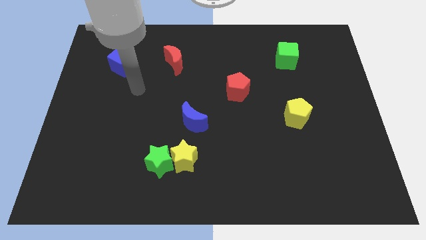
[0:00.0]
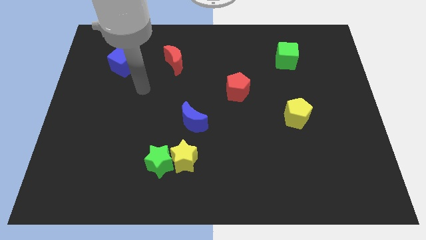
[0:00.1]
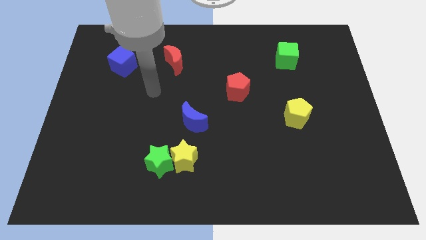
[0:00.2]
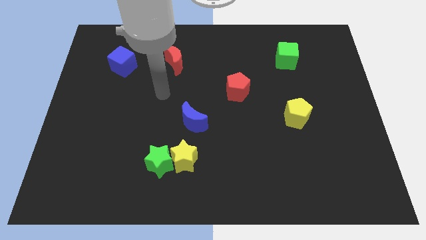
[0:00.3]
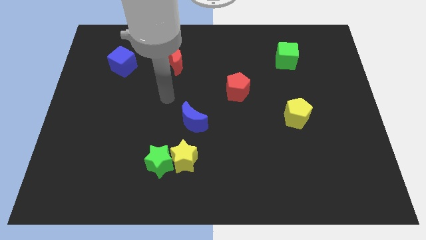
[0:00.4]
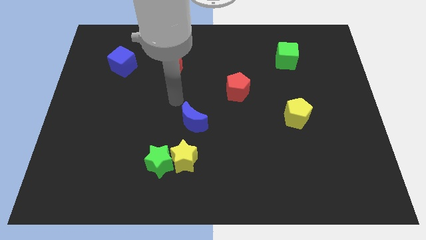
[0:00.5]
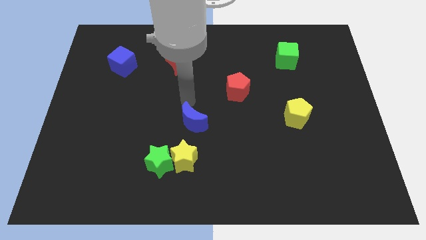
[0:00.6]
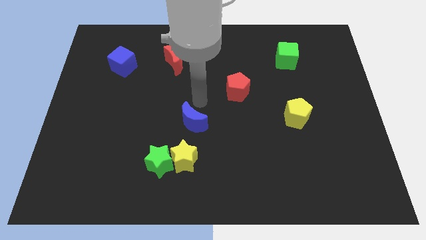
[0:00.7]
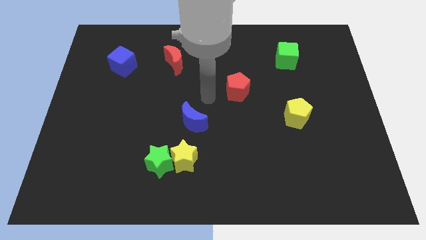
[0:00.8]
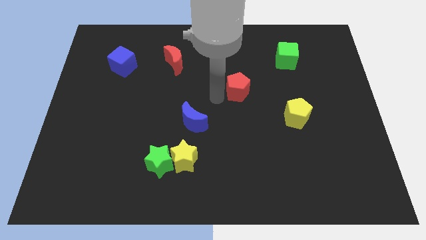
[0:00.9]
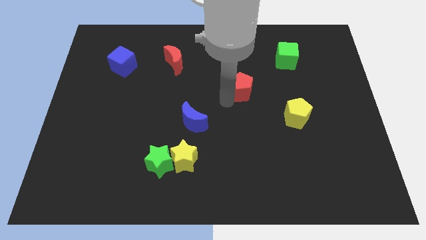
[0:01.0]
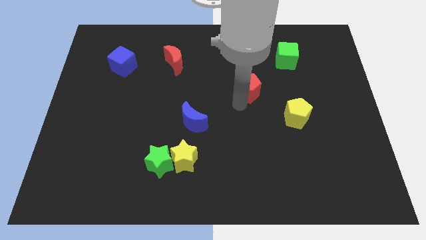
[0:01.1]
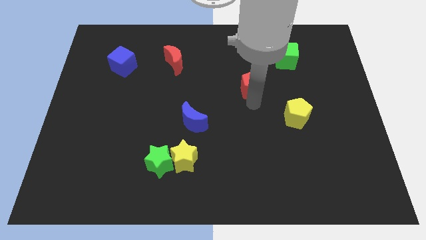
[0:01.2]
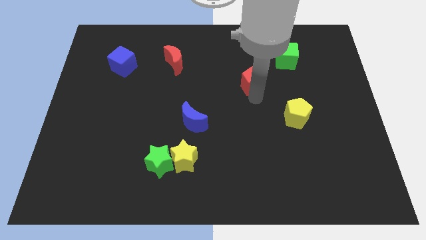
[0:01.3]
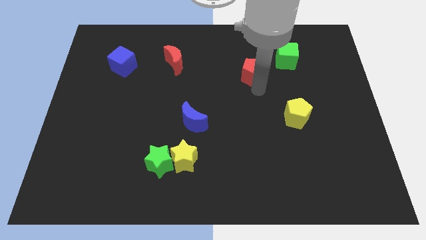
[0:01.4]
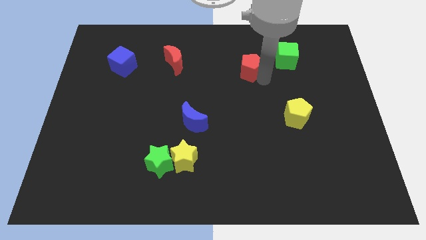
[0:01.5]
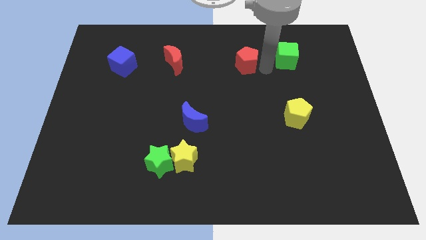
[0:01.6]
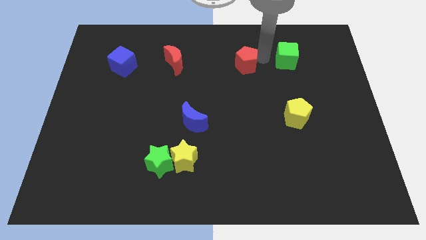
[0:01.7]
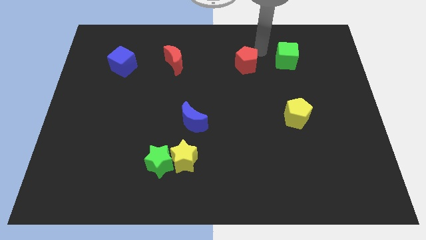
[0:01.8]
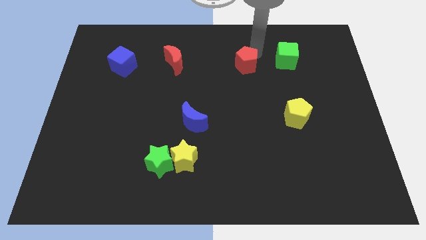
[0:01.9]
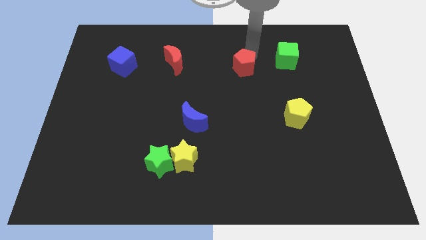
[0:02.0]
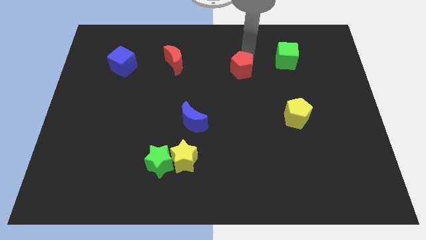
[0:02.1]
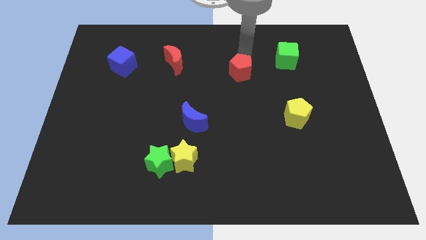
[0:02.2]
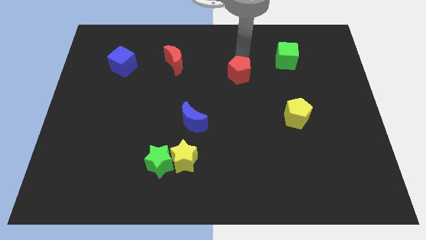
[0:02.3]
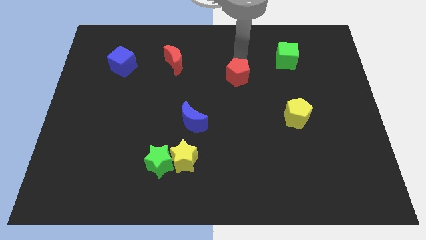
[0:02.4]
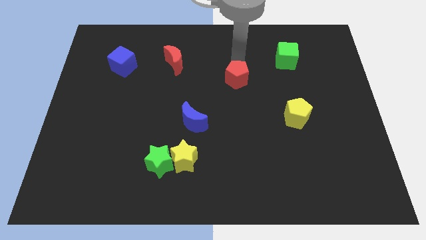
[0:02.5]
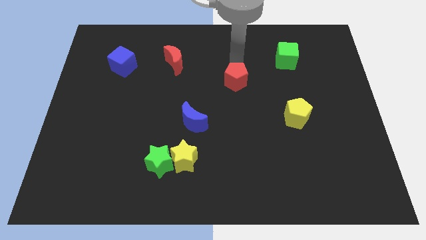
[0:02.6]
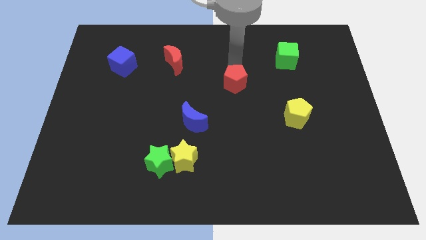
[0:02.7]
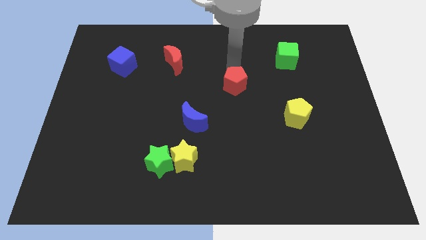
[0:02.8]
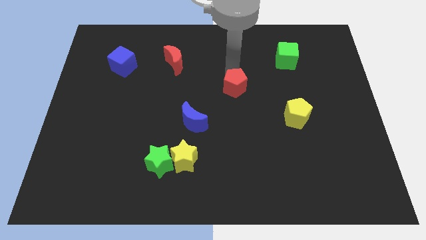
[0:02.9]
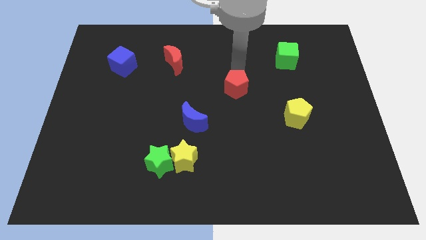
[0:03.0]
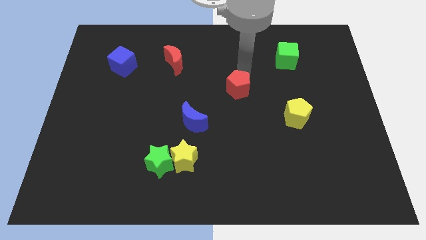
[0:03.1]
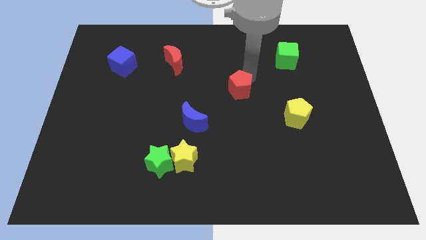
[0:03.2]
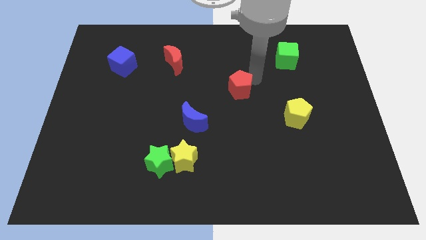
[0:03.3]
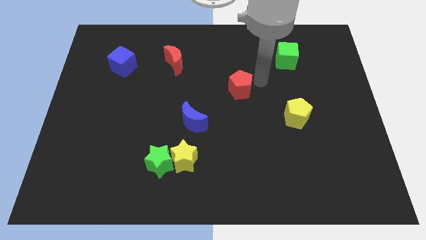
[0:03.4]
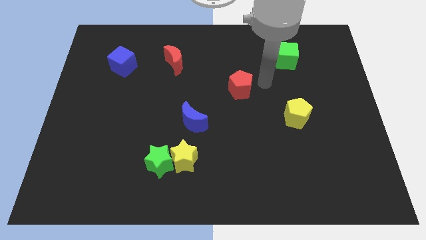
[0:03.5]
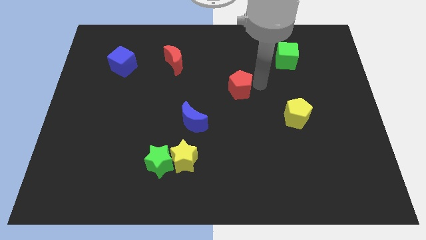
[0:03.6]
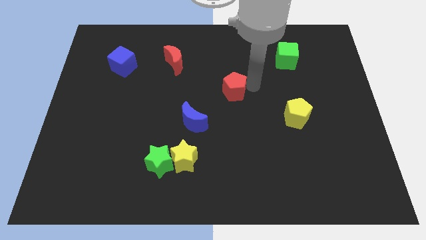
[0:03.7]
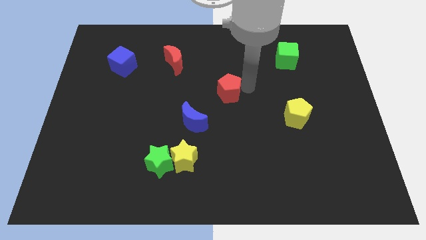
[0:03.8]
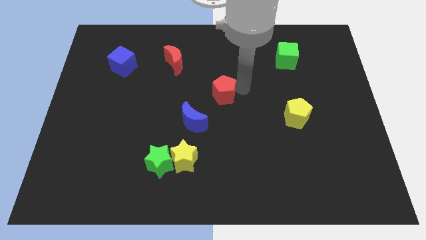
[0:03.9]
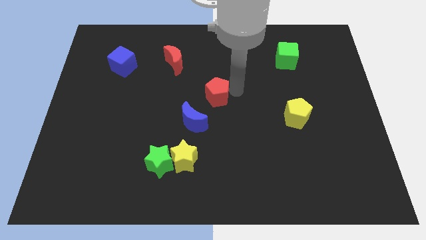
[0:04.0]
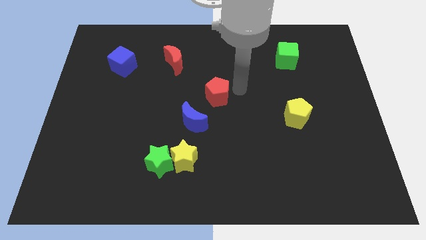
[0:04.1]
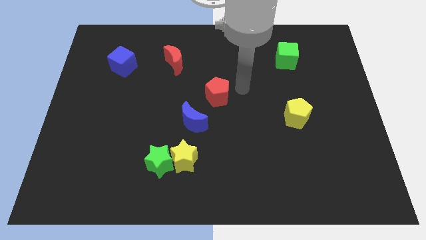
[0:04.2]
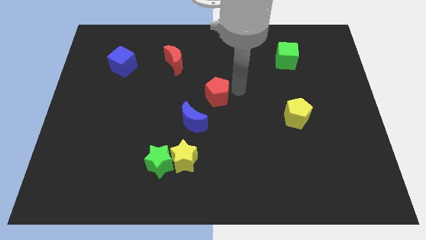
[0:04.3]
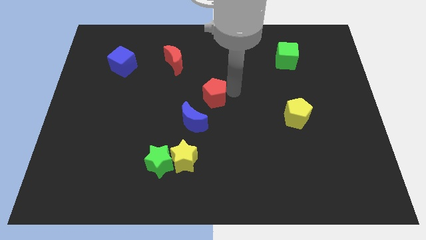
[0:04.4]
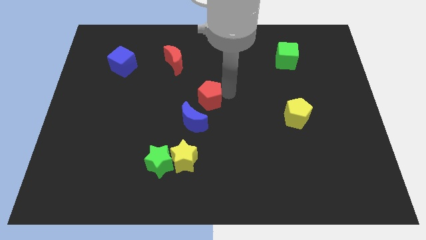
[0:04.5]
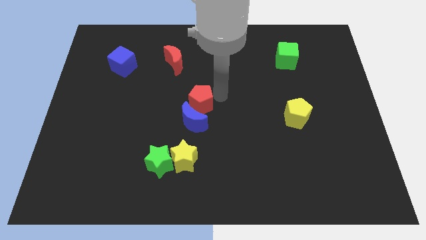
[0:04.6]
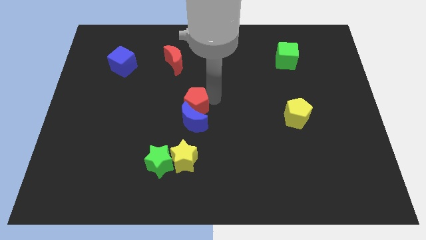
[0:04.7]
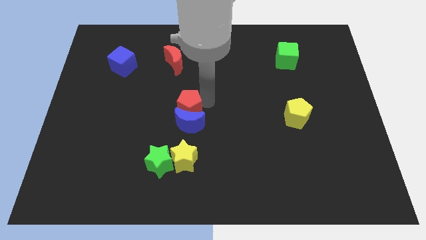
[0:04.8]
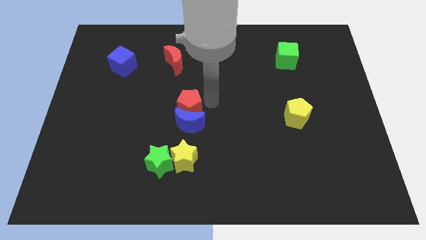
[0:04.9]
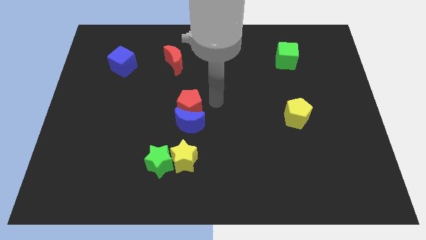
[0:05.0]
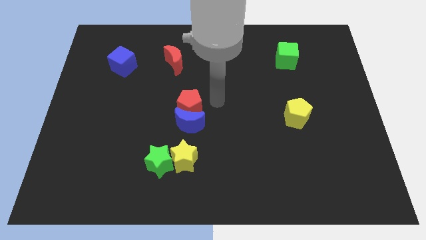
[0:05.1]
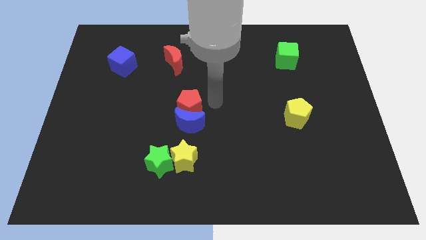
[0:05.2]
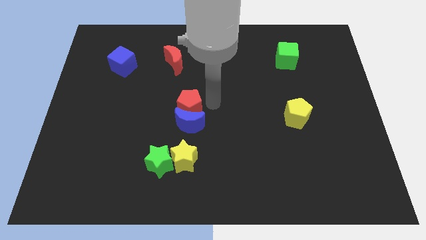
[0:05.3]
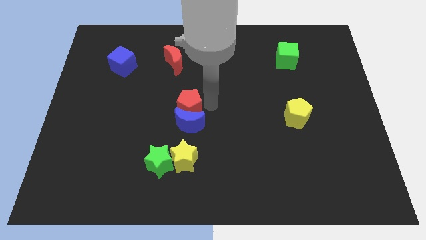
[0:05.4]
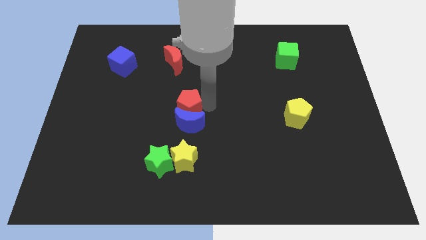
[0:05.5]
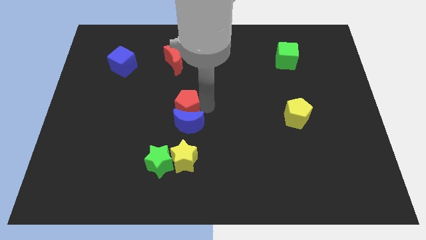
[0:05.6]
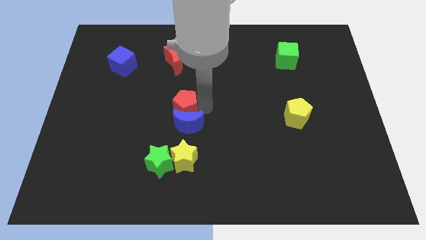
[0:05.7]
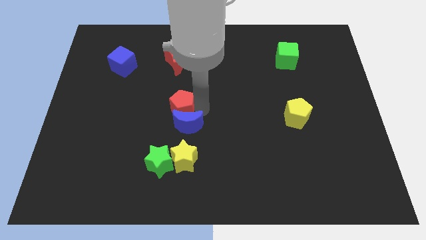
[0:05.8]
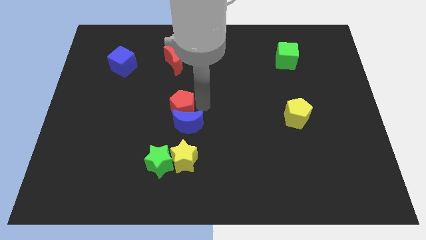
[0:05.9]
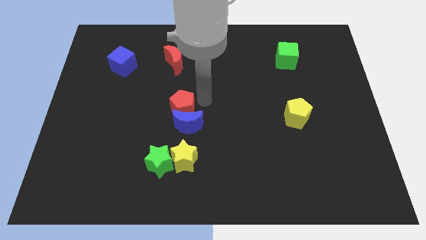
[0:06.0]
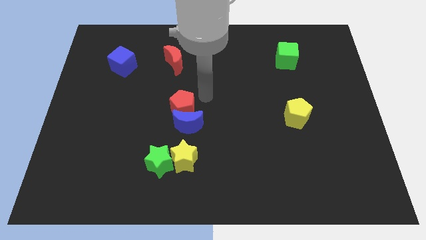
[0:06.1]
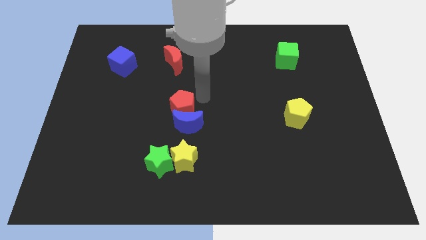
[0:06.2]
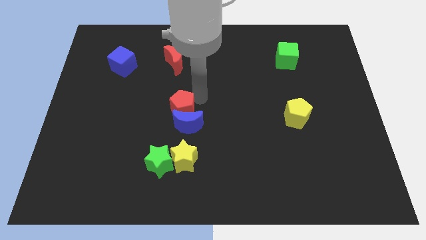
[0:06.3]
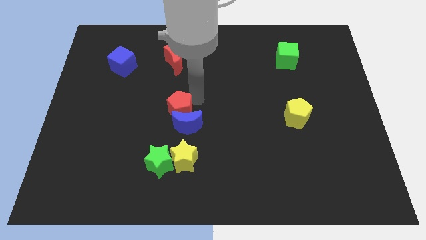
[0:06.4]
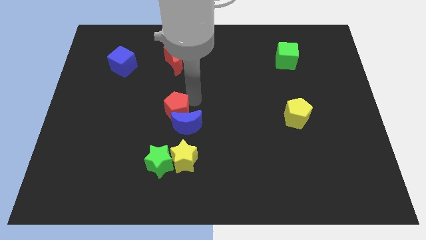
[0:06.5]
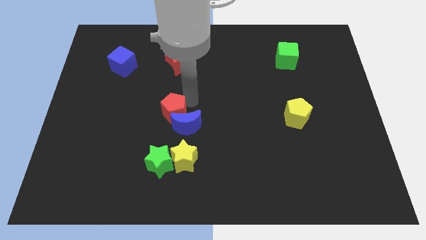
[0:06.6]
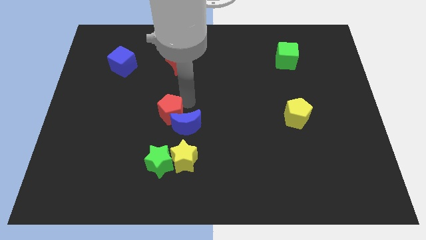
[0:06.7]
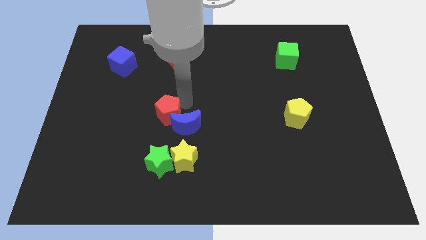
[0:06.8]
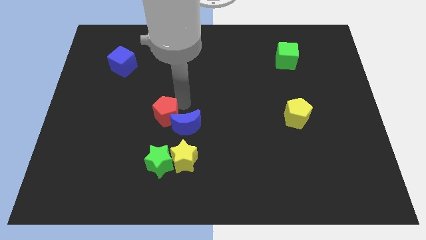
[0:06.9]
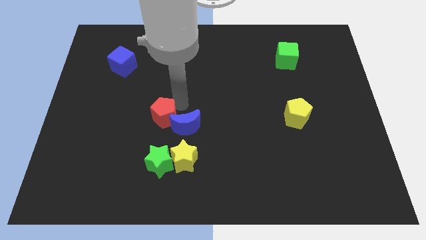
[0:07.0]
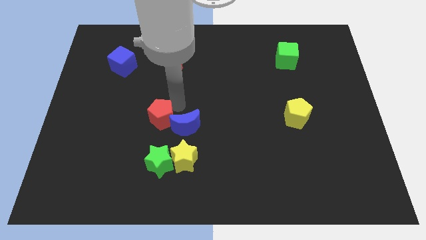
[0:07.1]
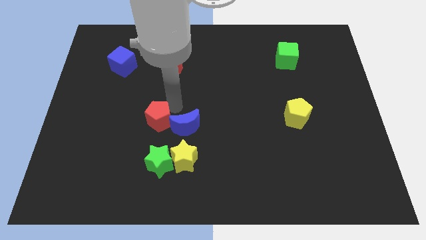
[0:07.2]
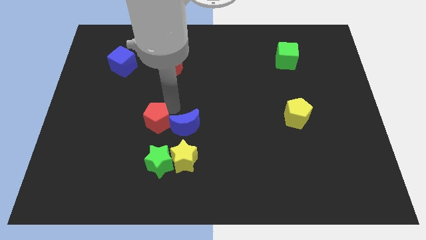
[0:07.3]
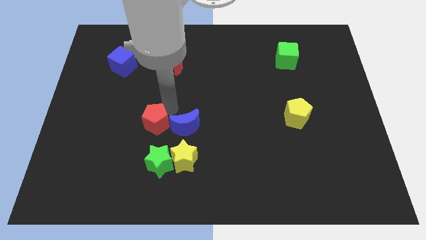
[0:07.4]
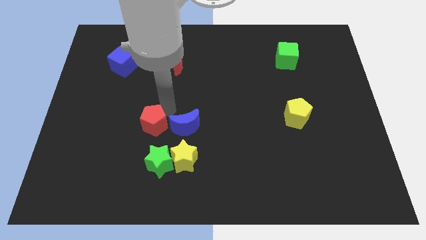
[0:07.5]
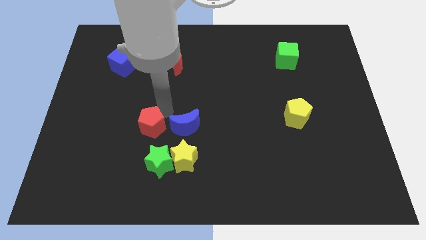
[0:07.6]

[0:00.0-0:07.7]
push the red pentagon downwards and left diagonally

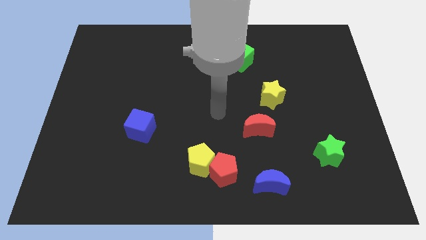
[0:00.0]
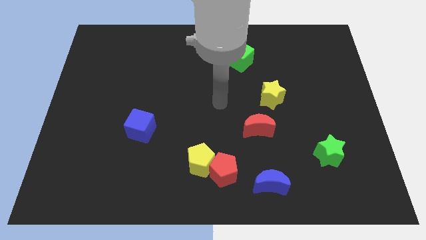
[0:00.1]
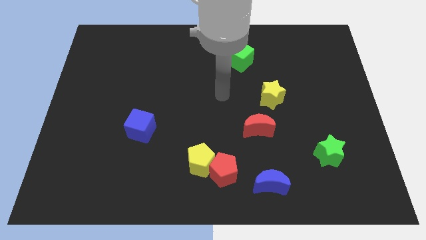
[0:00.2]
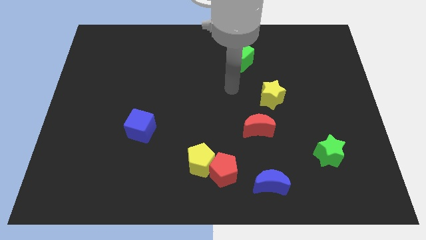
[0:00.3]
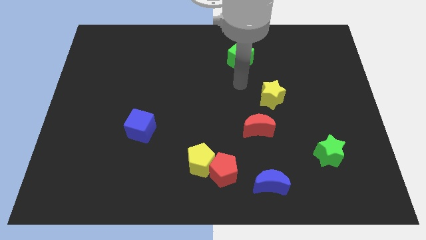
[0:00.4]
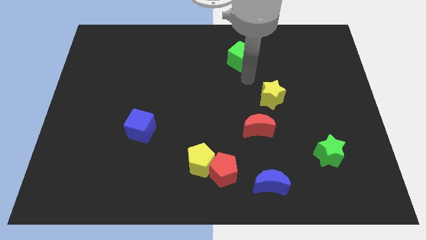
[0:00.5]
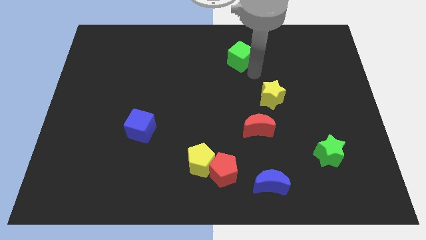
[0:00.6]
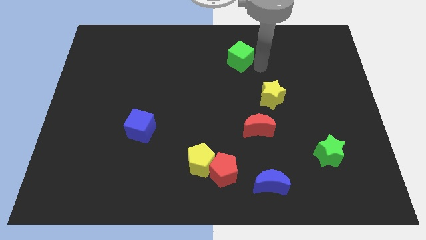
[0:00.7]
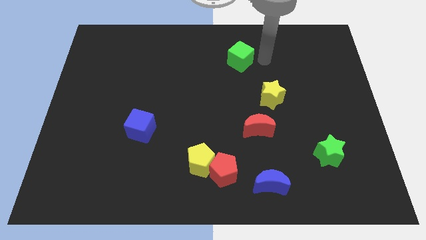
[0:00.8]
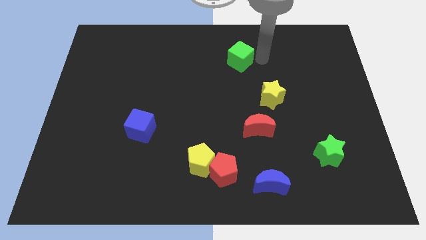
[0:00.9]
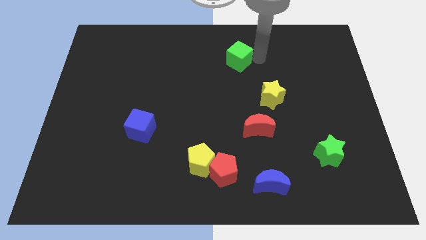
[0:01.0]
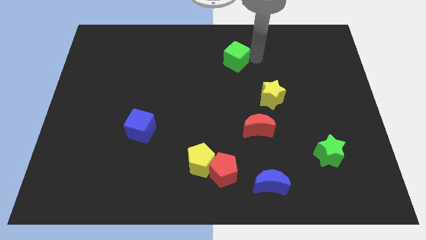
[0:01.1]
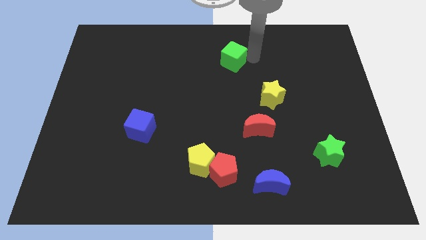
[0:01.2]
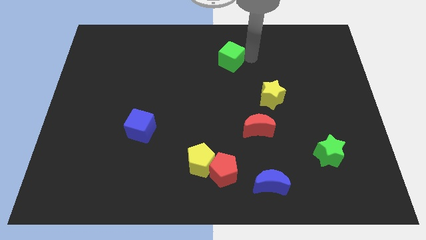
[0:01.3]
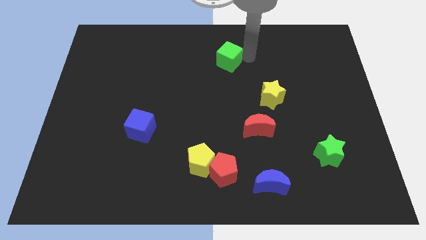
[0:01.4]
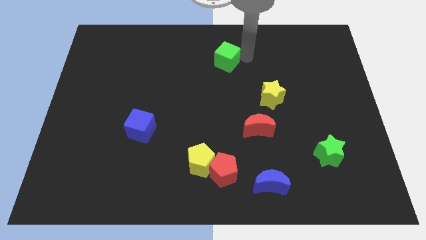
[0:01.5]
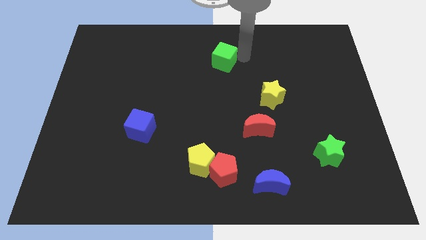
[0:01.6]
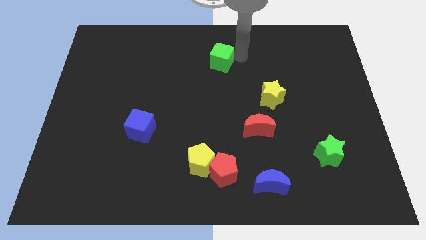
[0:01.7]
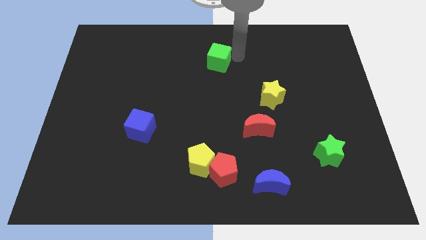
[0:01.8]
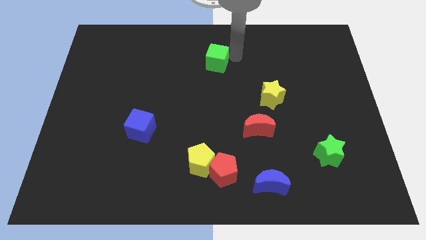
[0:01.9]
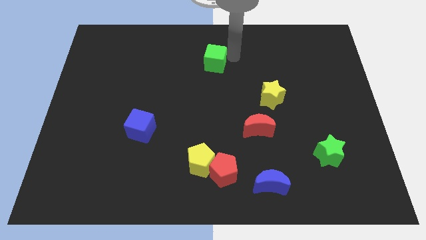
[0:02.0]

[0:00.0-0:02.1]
slightly push the green cube left
